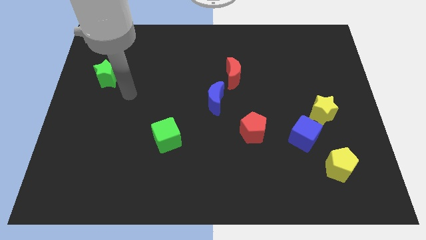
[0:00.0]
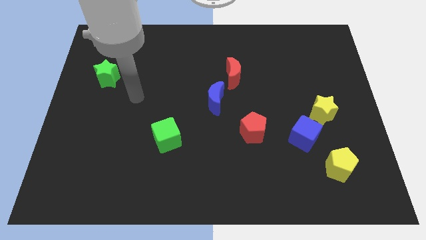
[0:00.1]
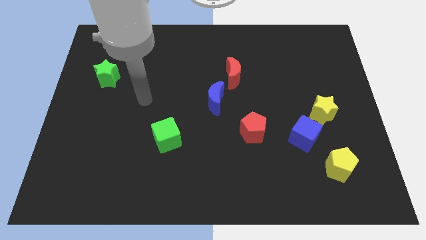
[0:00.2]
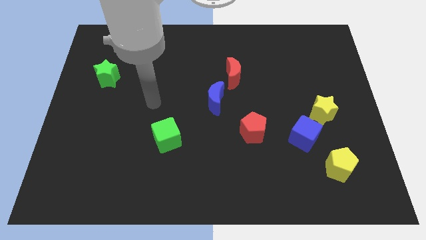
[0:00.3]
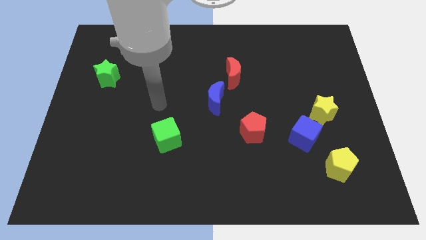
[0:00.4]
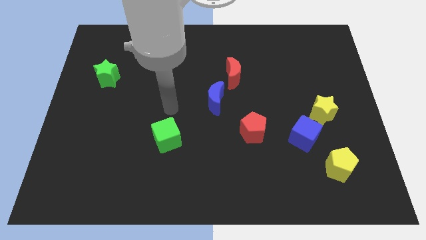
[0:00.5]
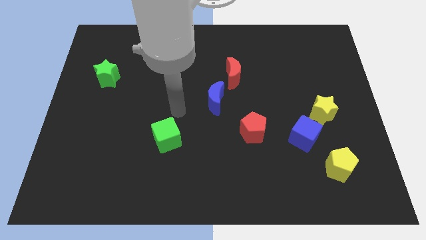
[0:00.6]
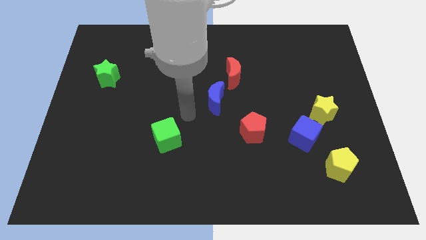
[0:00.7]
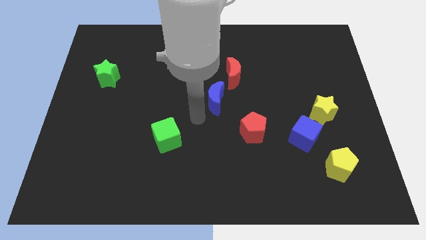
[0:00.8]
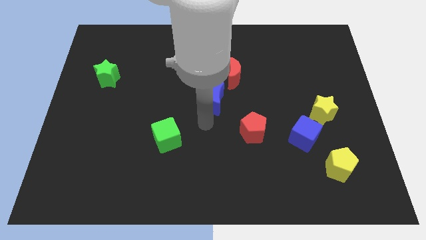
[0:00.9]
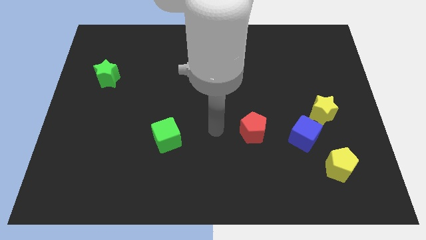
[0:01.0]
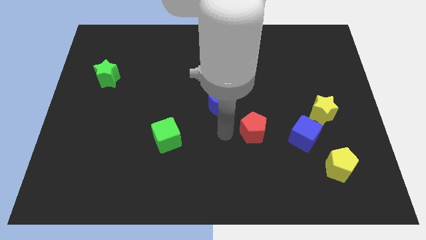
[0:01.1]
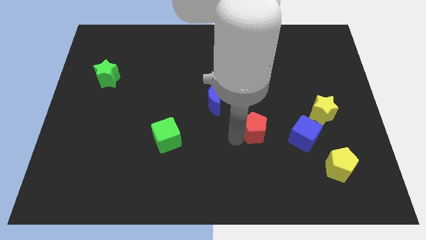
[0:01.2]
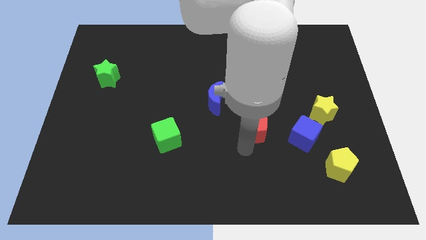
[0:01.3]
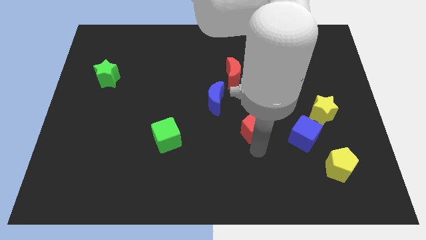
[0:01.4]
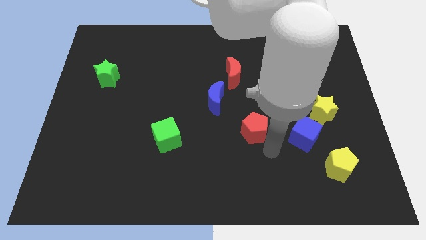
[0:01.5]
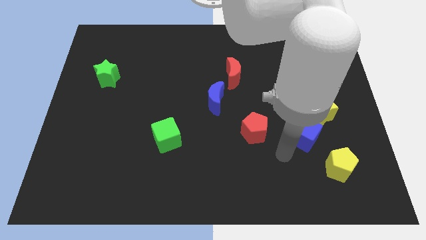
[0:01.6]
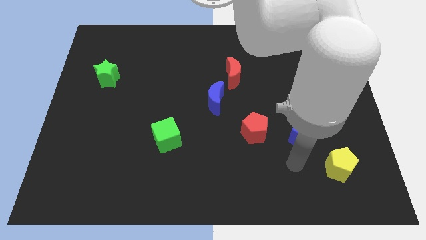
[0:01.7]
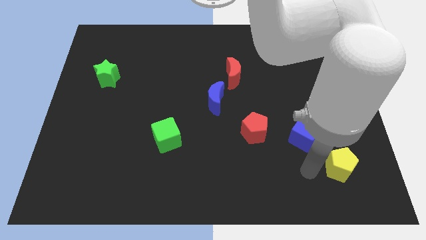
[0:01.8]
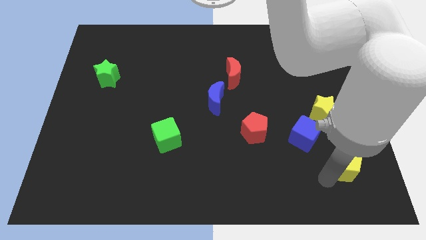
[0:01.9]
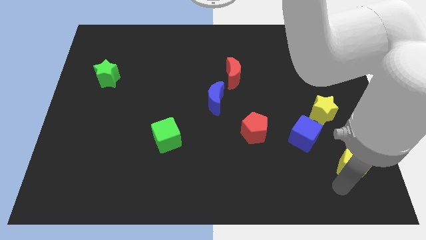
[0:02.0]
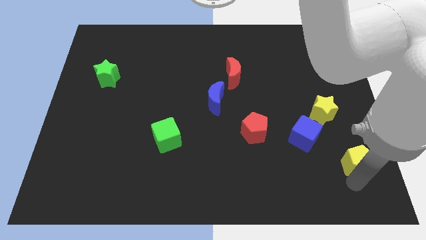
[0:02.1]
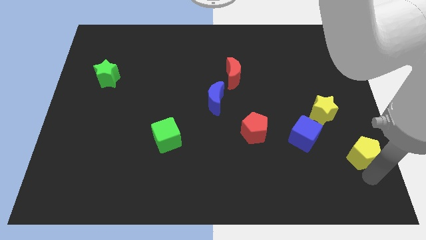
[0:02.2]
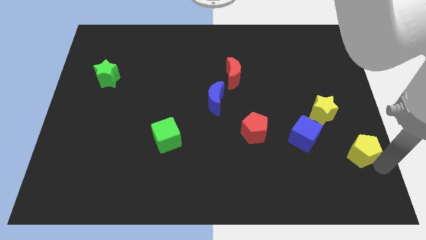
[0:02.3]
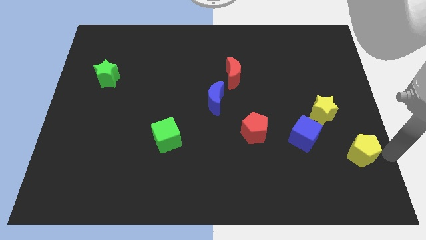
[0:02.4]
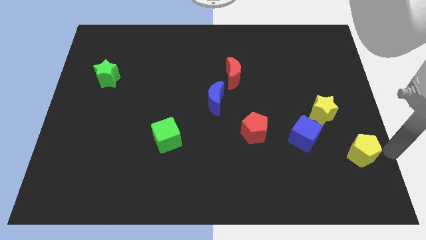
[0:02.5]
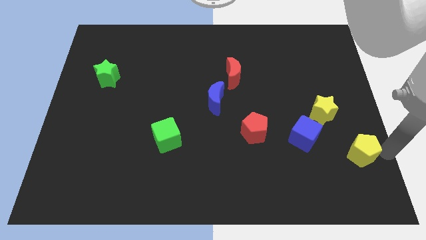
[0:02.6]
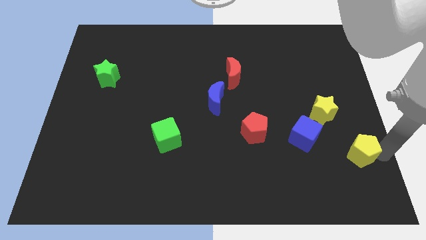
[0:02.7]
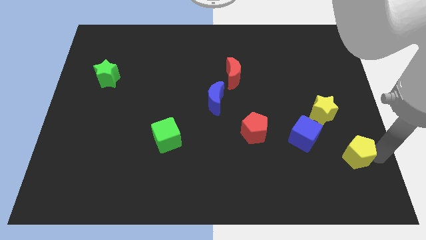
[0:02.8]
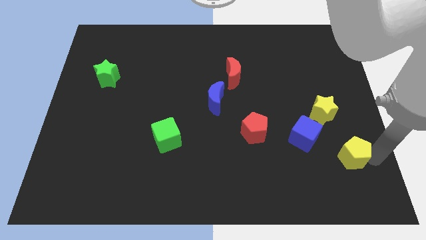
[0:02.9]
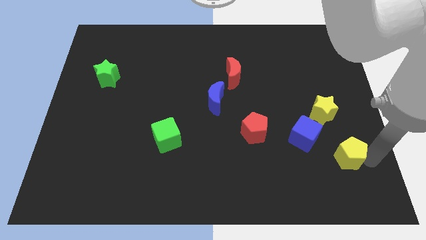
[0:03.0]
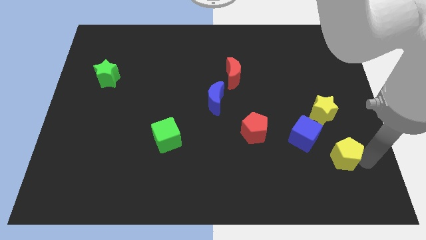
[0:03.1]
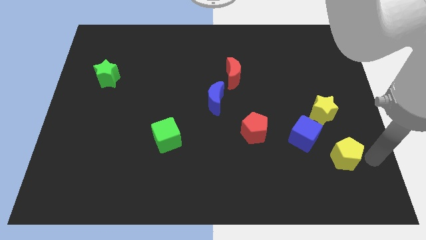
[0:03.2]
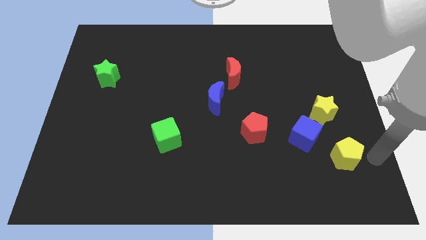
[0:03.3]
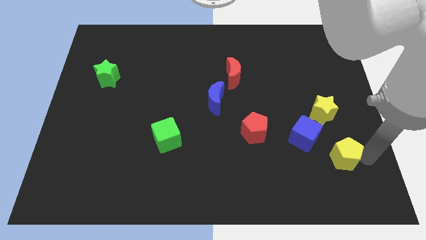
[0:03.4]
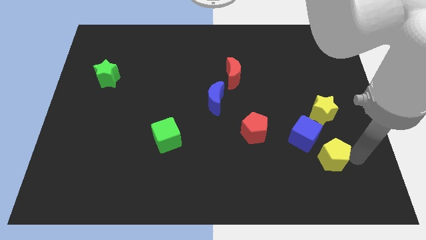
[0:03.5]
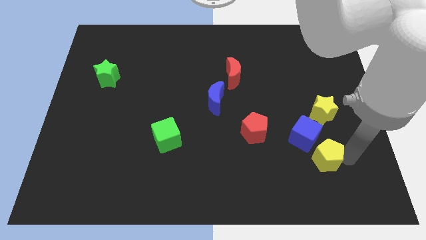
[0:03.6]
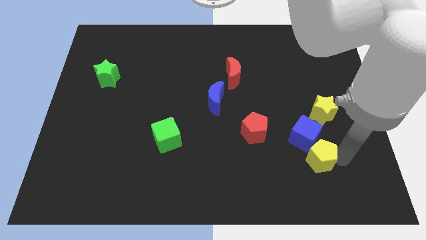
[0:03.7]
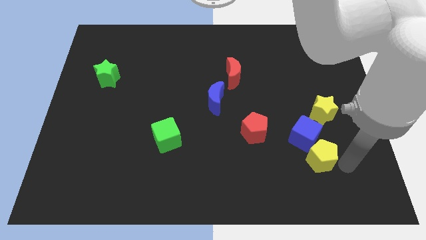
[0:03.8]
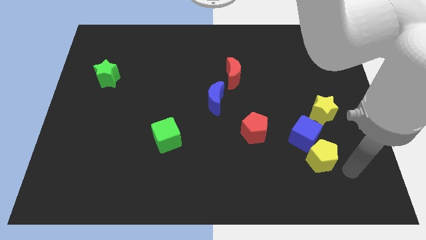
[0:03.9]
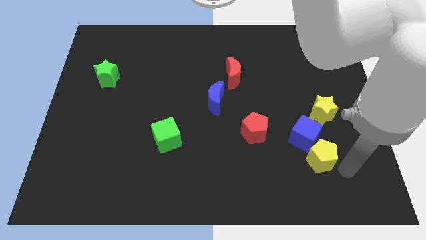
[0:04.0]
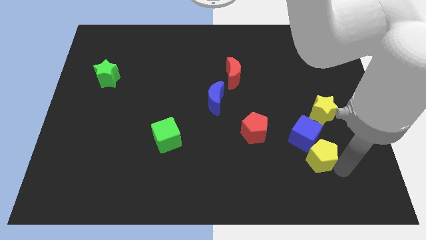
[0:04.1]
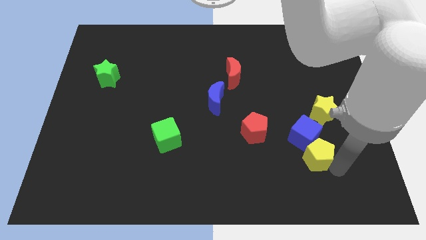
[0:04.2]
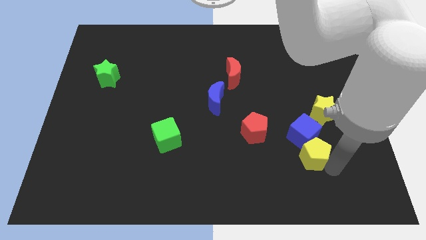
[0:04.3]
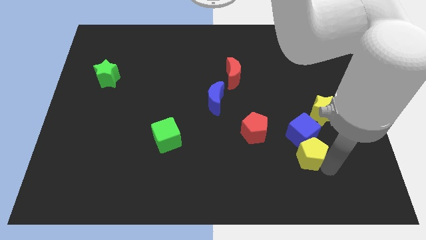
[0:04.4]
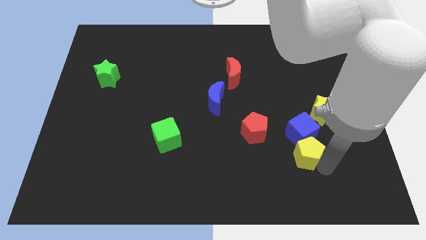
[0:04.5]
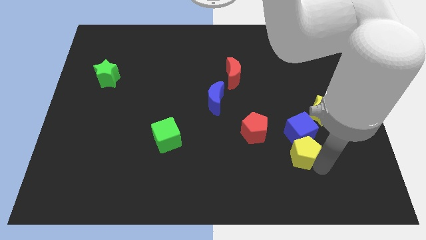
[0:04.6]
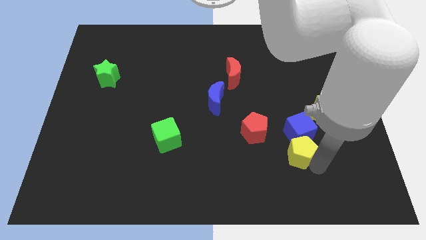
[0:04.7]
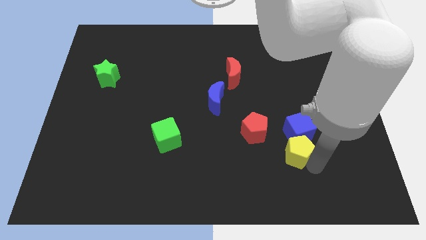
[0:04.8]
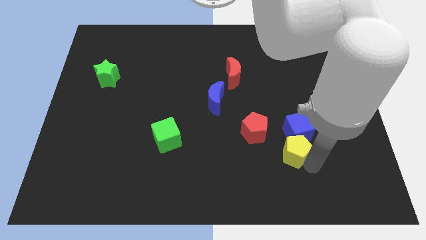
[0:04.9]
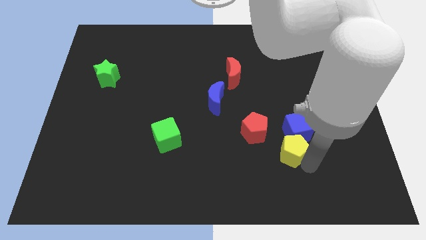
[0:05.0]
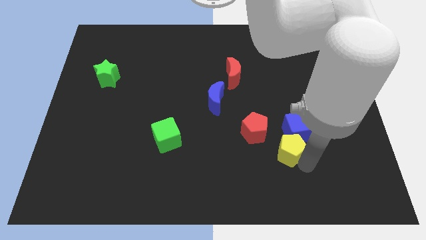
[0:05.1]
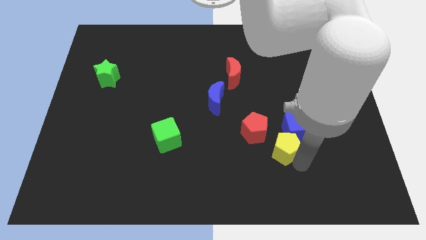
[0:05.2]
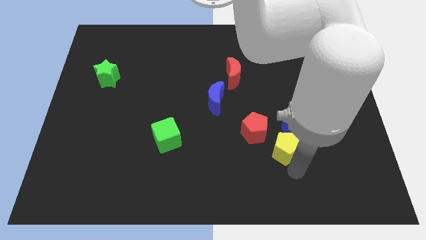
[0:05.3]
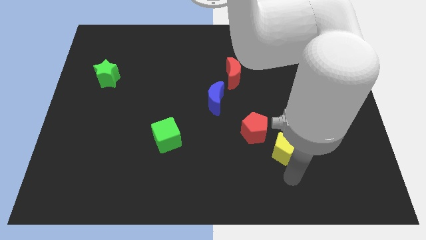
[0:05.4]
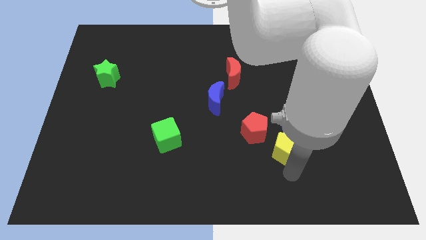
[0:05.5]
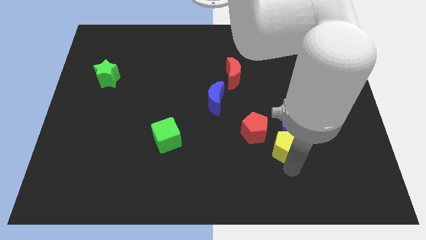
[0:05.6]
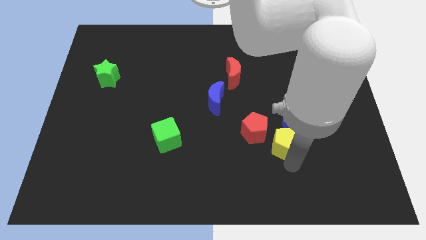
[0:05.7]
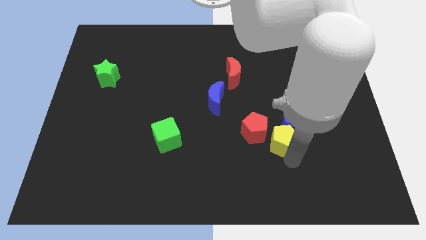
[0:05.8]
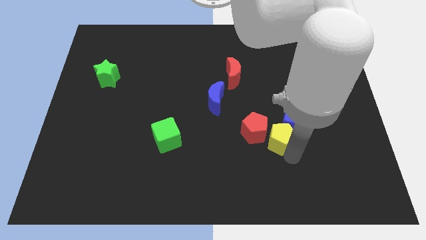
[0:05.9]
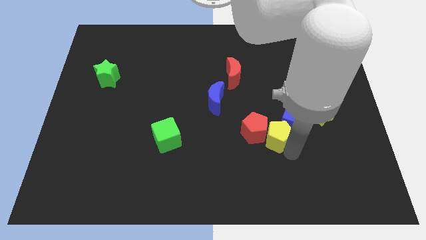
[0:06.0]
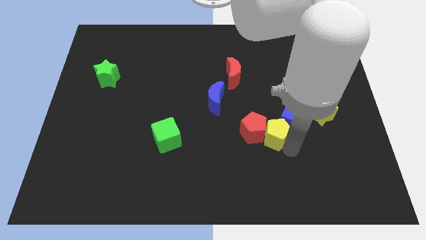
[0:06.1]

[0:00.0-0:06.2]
push the yellow pentagon to the top right of the red pentagon

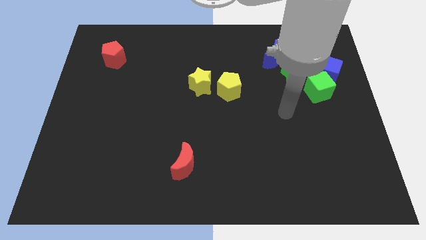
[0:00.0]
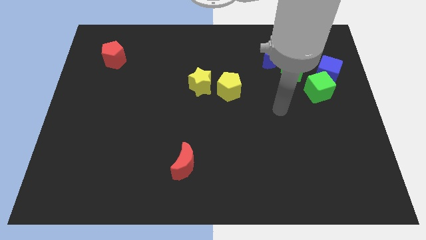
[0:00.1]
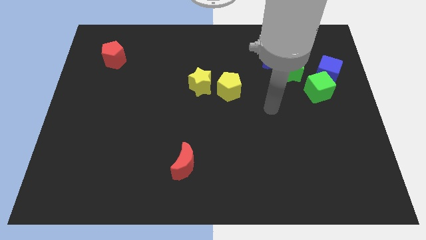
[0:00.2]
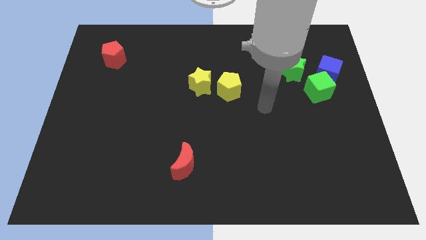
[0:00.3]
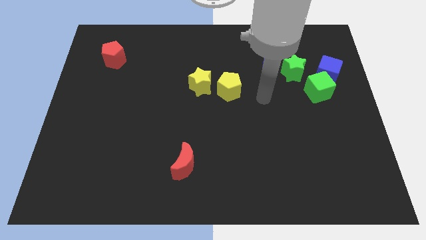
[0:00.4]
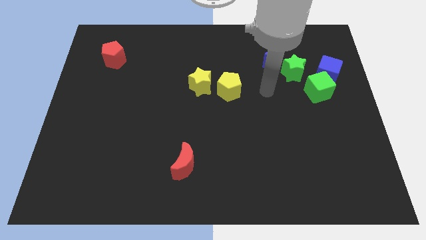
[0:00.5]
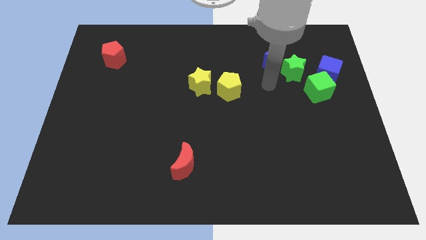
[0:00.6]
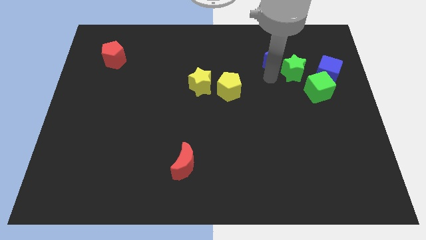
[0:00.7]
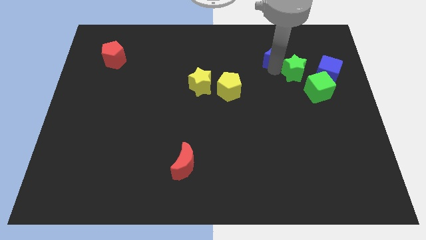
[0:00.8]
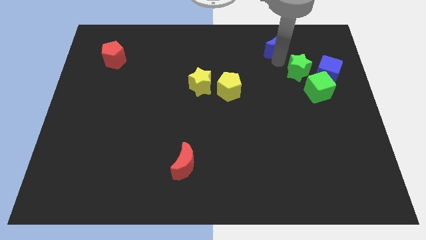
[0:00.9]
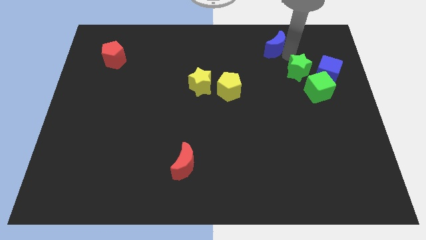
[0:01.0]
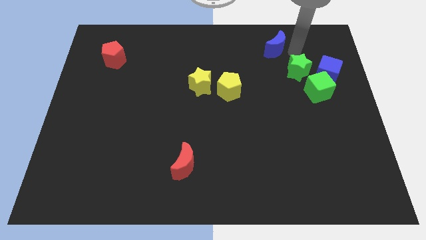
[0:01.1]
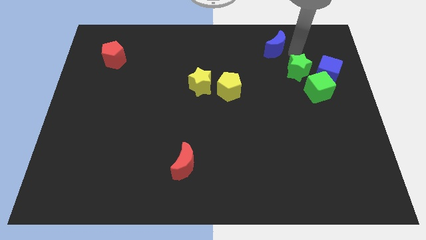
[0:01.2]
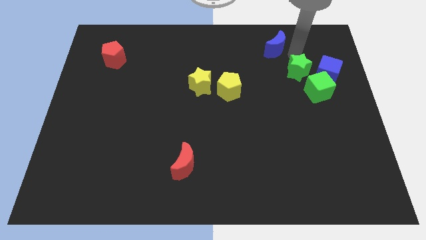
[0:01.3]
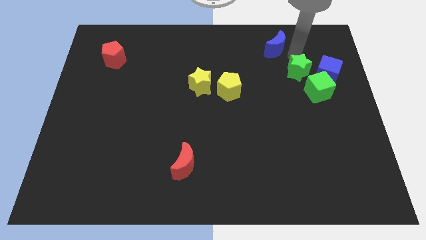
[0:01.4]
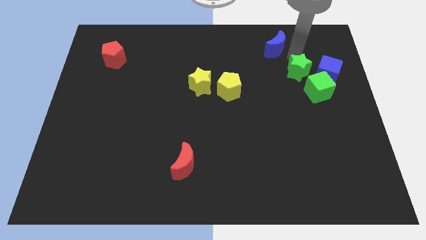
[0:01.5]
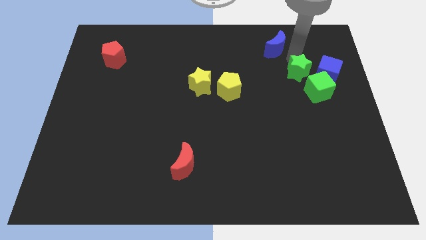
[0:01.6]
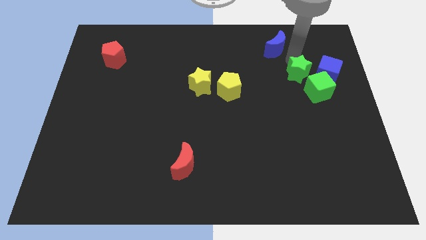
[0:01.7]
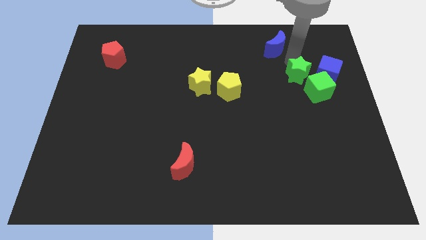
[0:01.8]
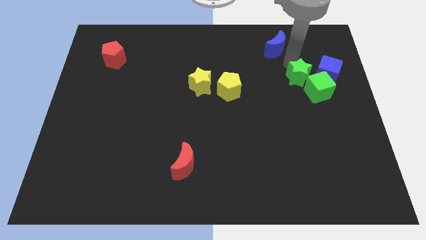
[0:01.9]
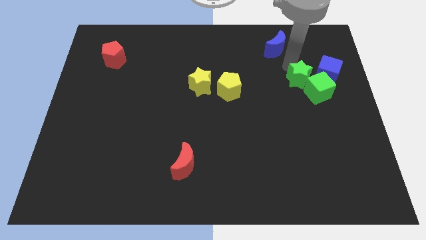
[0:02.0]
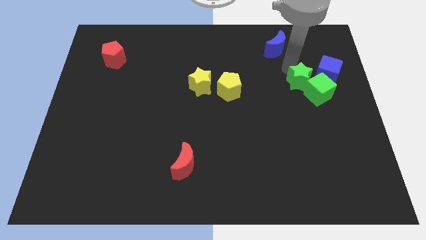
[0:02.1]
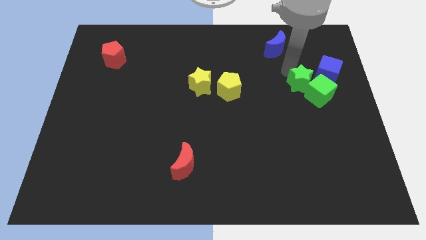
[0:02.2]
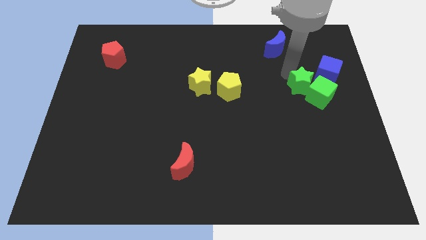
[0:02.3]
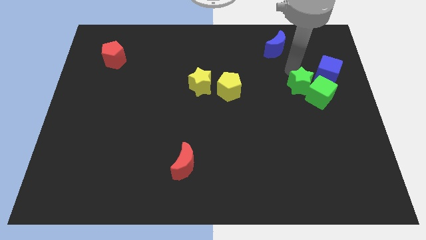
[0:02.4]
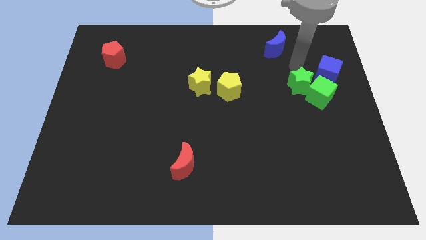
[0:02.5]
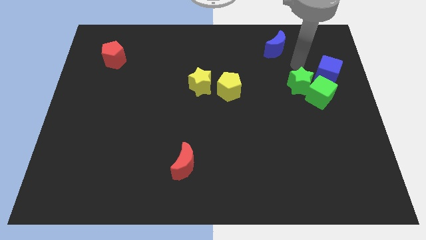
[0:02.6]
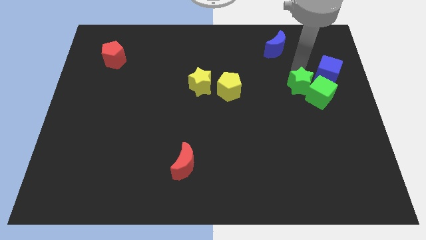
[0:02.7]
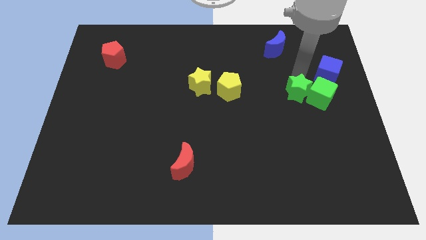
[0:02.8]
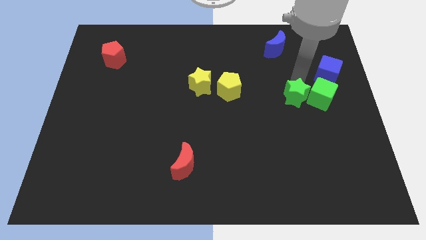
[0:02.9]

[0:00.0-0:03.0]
put the green star diagonally down and to the left of the green cube
